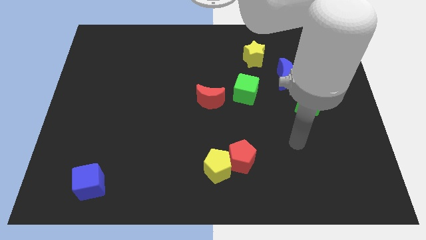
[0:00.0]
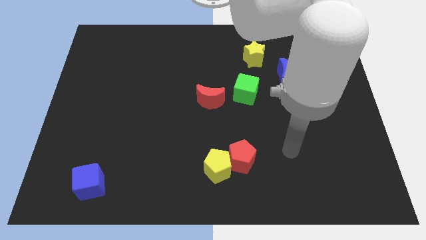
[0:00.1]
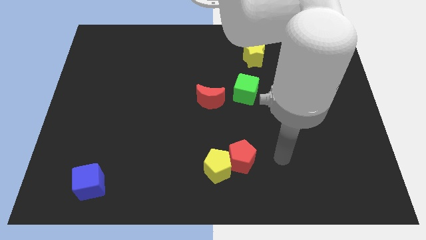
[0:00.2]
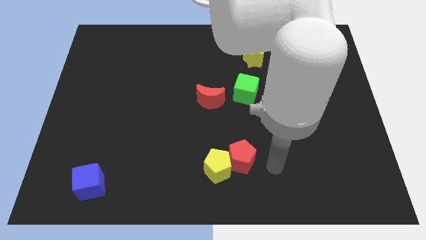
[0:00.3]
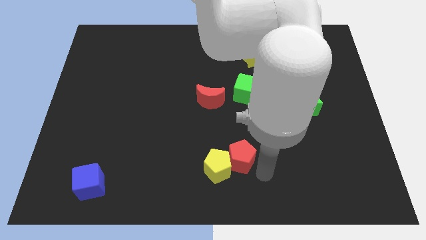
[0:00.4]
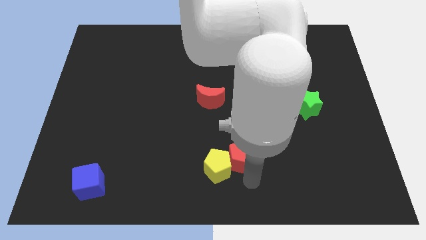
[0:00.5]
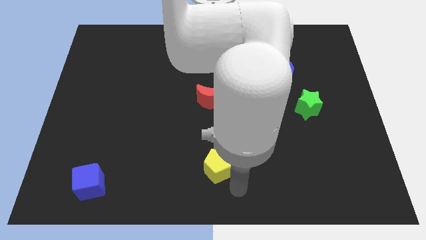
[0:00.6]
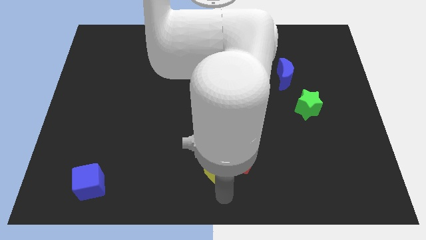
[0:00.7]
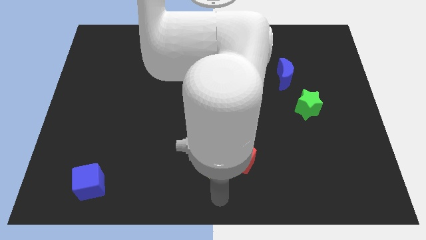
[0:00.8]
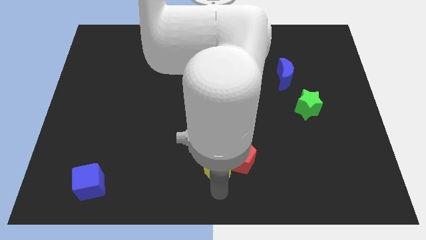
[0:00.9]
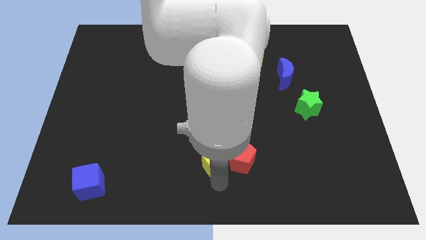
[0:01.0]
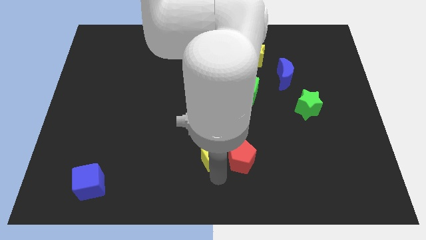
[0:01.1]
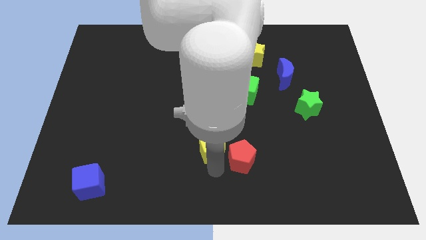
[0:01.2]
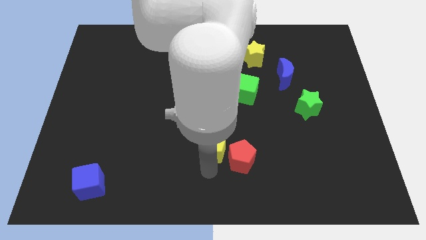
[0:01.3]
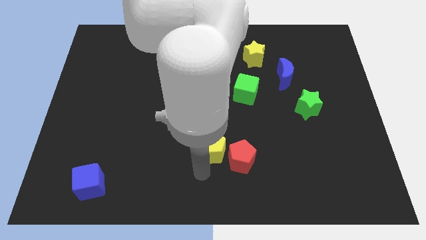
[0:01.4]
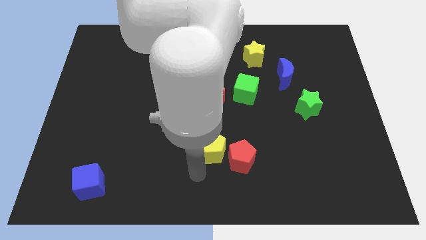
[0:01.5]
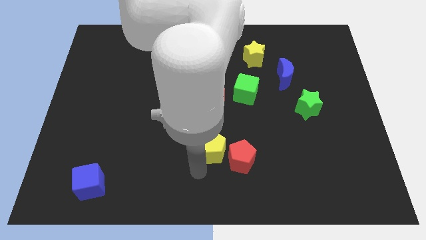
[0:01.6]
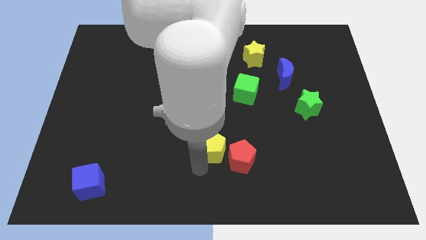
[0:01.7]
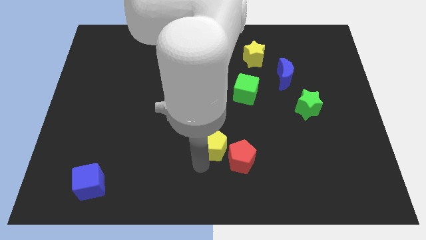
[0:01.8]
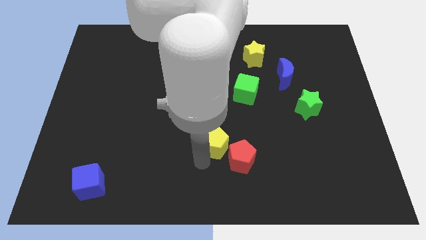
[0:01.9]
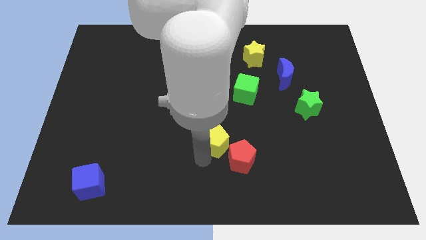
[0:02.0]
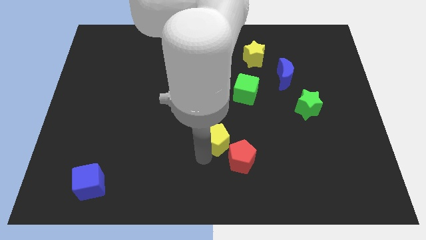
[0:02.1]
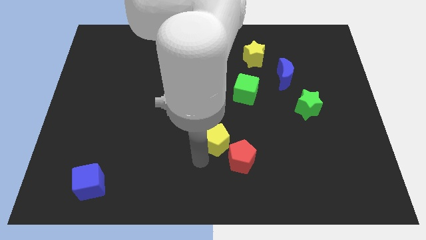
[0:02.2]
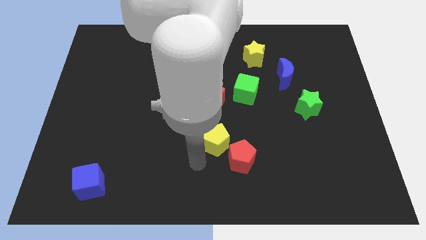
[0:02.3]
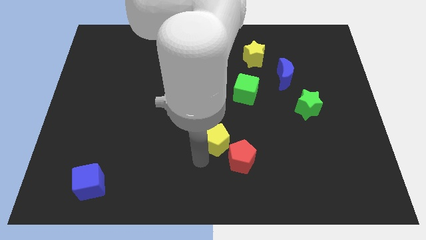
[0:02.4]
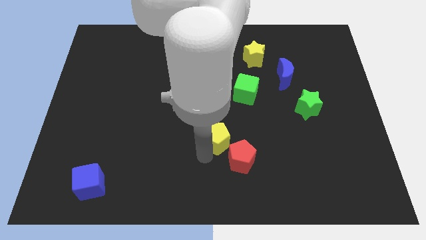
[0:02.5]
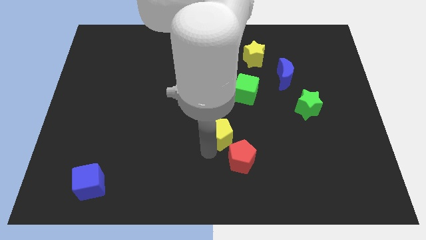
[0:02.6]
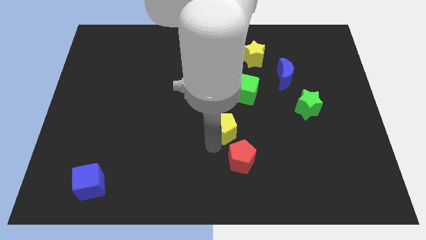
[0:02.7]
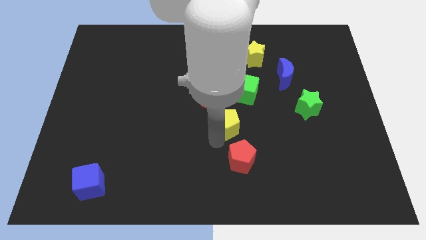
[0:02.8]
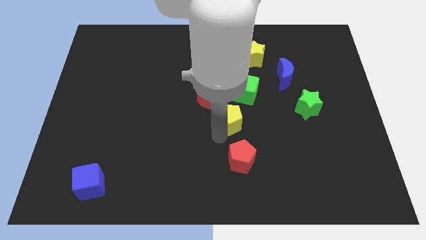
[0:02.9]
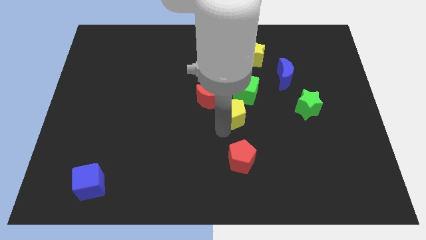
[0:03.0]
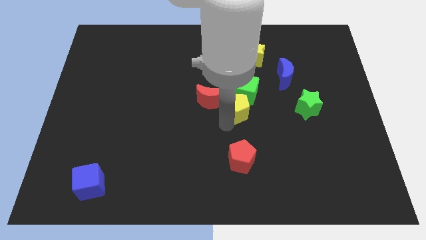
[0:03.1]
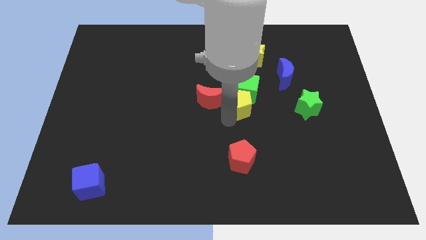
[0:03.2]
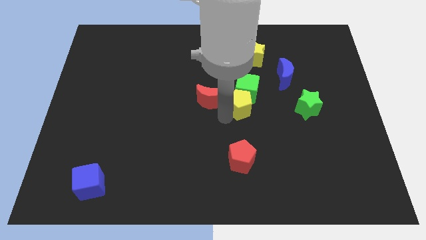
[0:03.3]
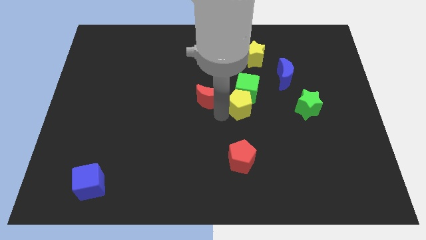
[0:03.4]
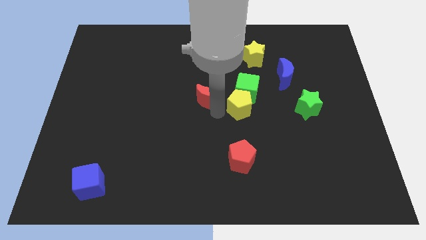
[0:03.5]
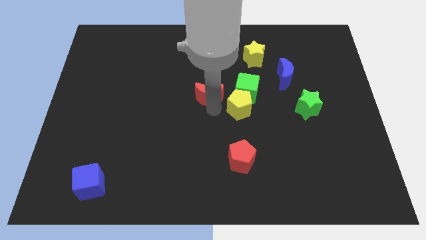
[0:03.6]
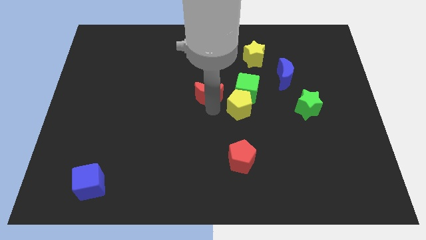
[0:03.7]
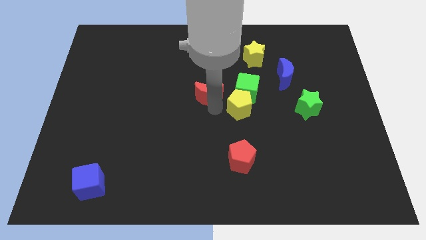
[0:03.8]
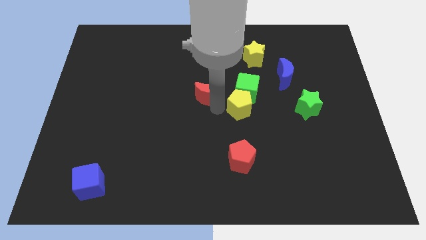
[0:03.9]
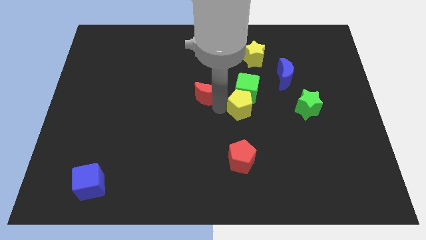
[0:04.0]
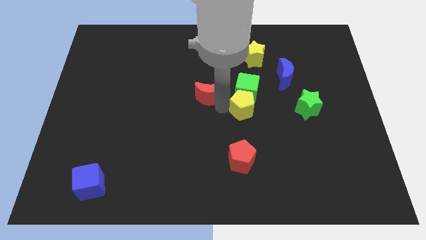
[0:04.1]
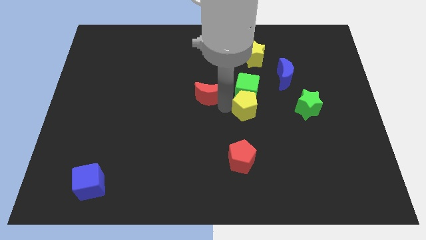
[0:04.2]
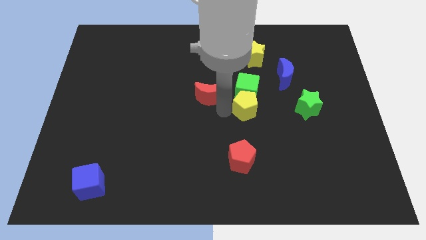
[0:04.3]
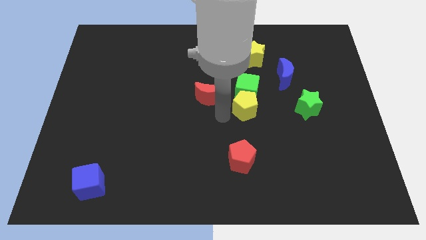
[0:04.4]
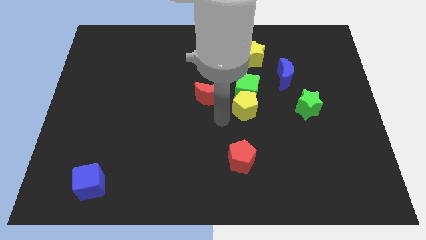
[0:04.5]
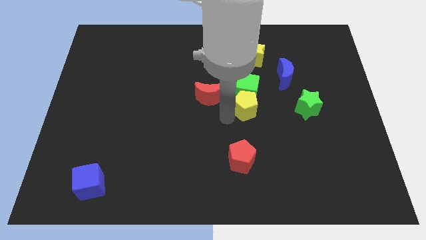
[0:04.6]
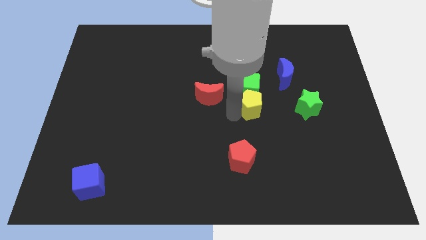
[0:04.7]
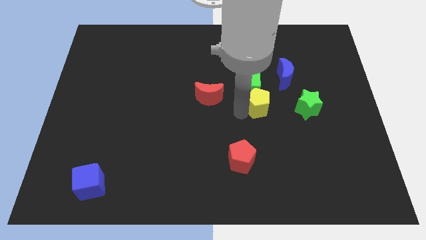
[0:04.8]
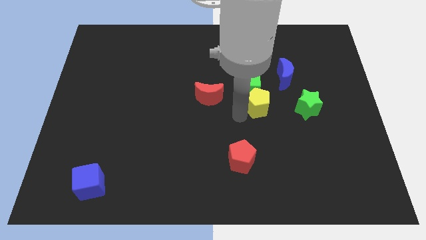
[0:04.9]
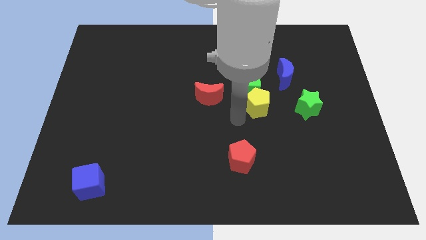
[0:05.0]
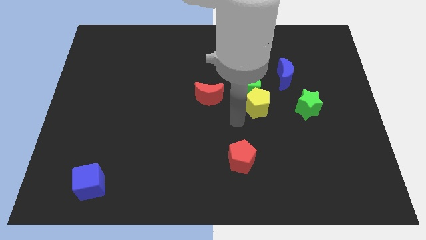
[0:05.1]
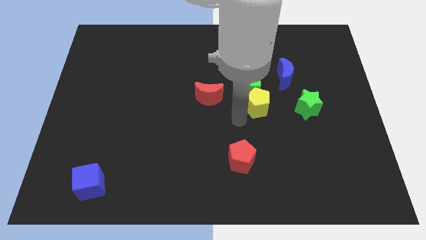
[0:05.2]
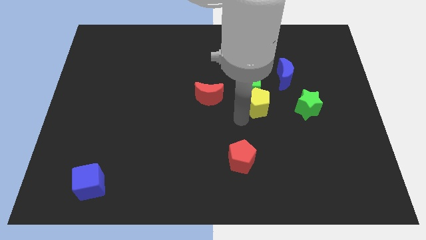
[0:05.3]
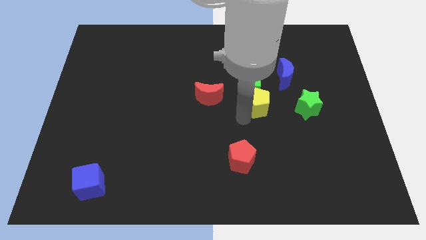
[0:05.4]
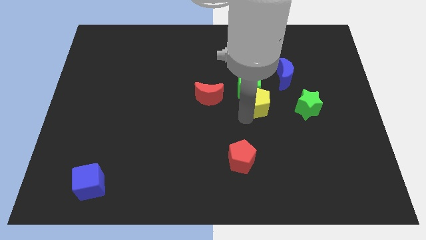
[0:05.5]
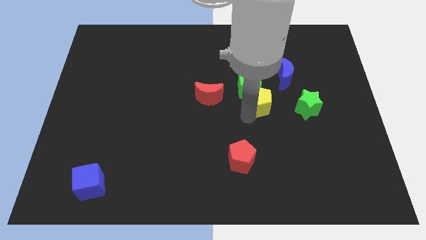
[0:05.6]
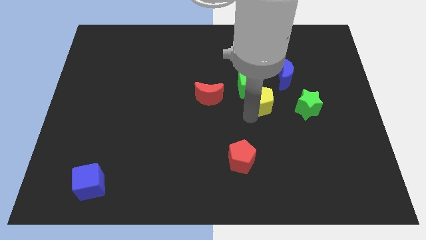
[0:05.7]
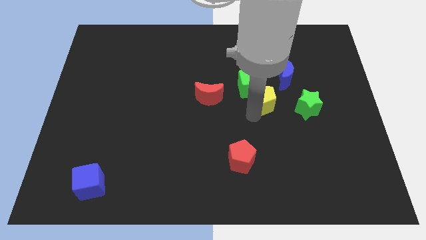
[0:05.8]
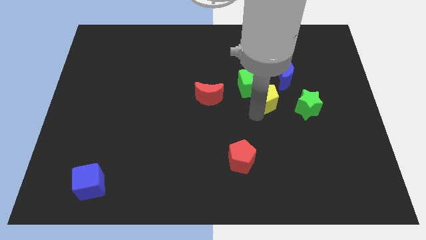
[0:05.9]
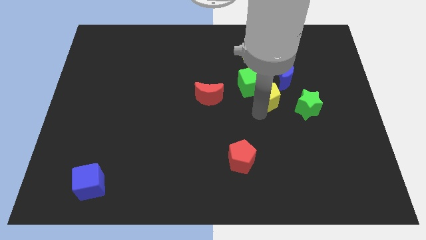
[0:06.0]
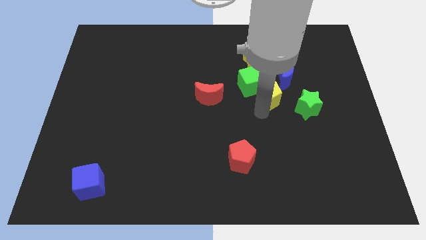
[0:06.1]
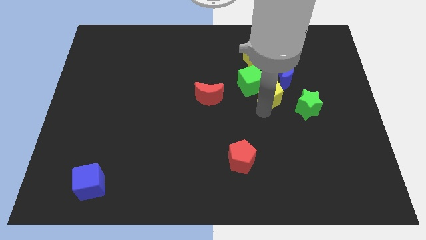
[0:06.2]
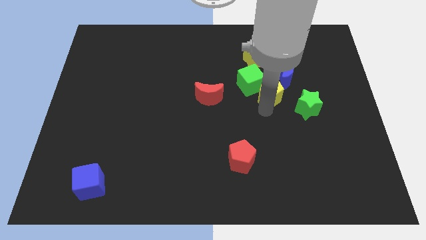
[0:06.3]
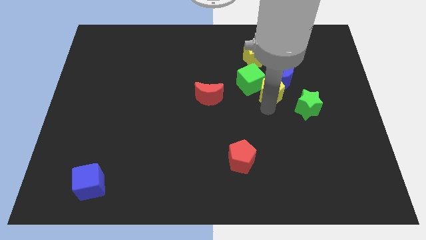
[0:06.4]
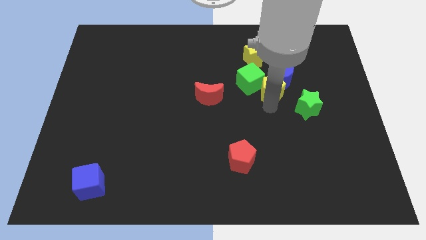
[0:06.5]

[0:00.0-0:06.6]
put the yellow pentagon towards the blue moon
